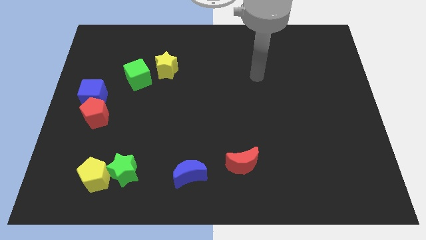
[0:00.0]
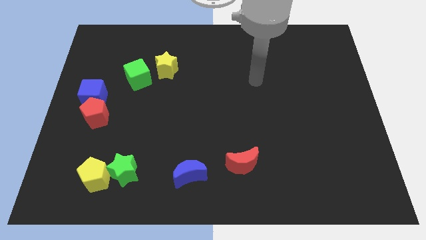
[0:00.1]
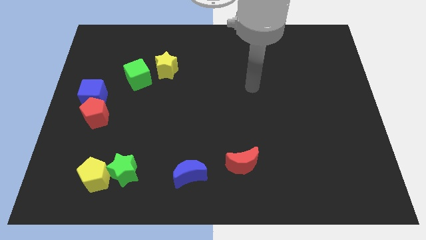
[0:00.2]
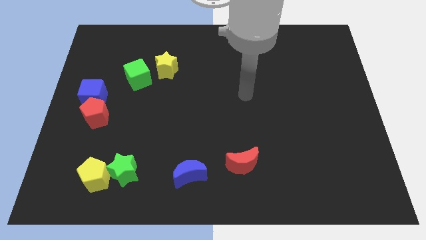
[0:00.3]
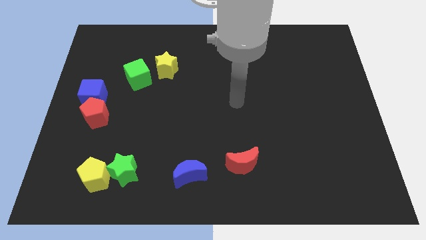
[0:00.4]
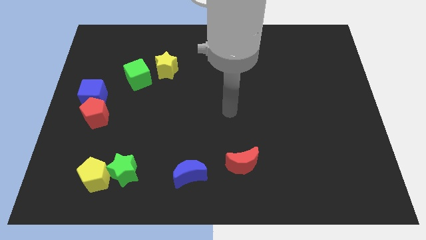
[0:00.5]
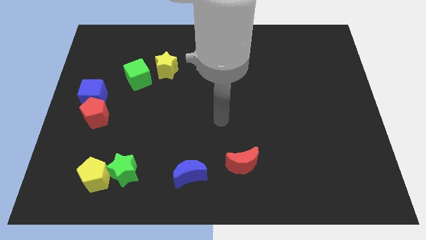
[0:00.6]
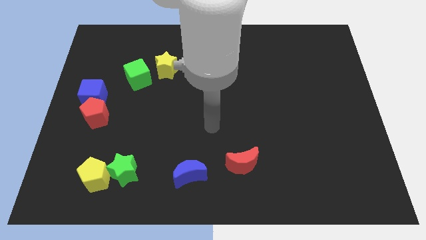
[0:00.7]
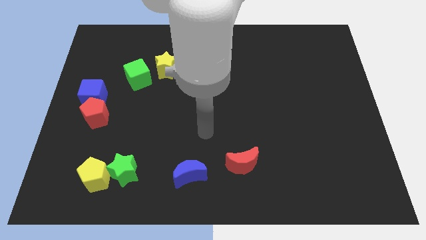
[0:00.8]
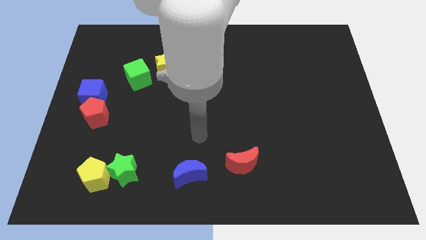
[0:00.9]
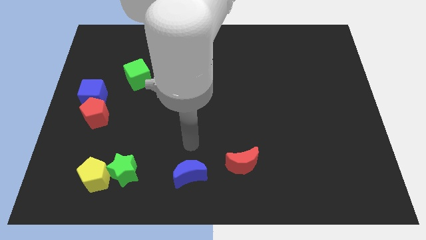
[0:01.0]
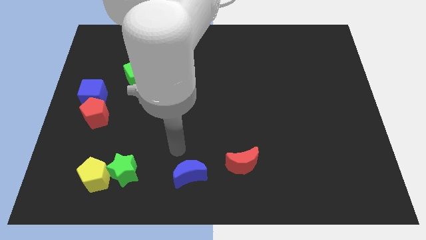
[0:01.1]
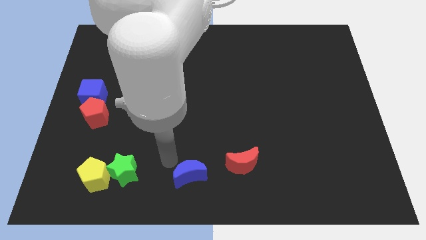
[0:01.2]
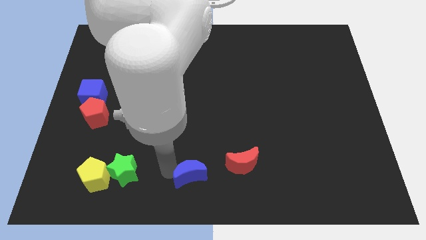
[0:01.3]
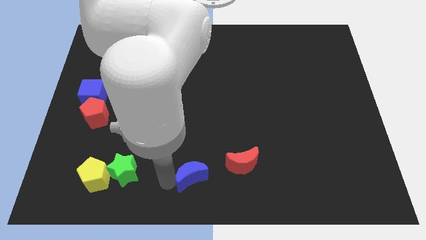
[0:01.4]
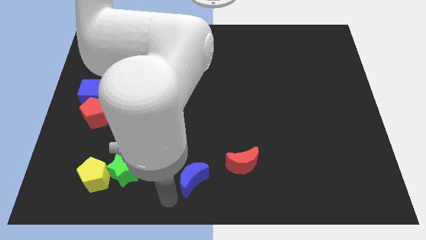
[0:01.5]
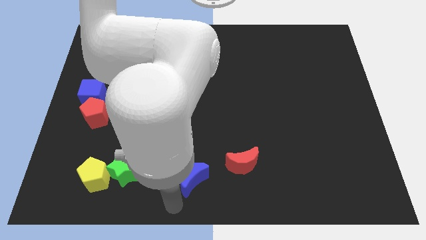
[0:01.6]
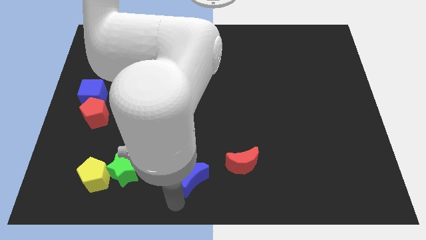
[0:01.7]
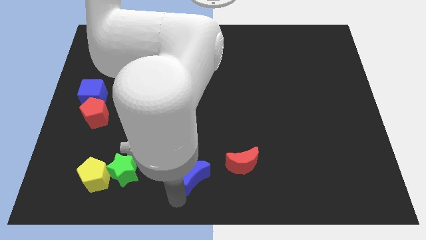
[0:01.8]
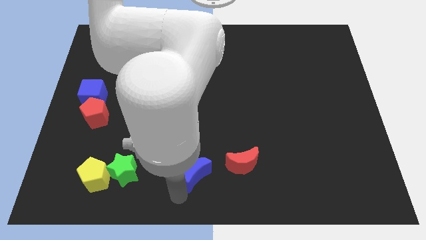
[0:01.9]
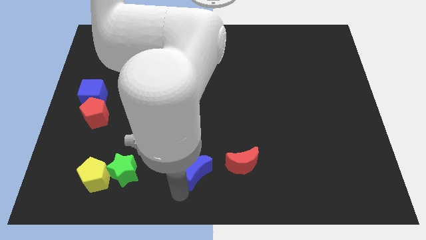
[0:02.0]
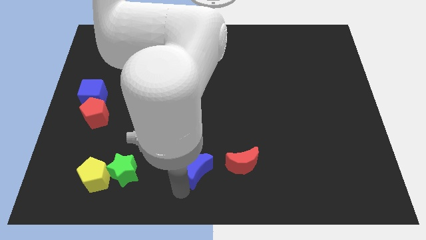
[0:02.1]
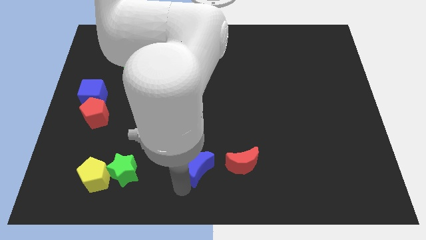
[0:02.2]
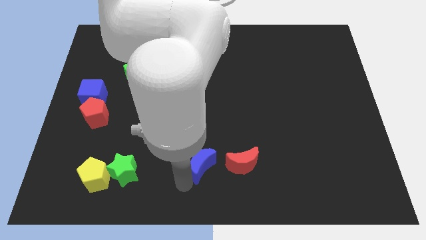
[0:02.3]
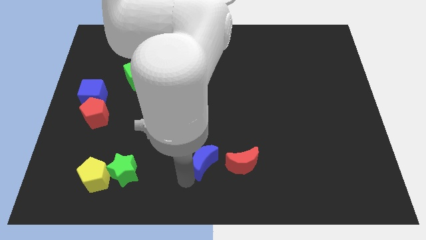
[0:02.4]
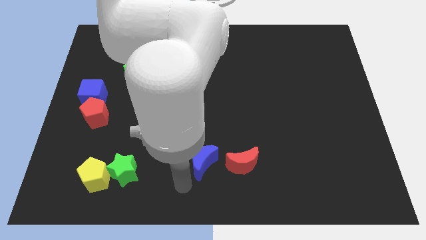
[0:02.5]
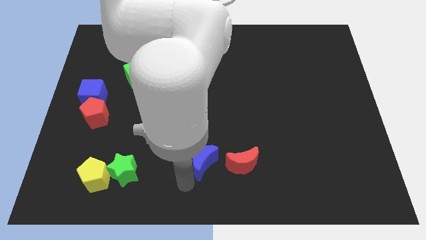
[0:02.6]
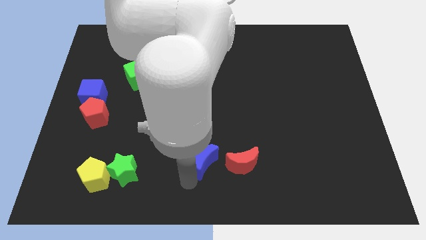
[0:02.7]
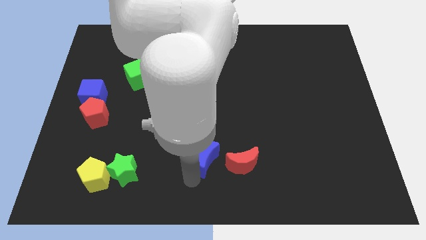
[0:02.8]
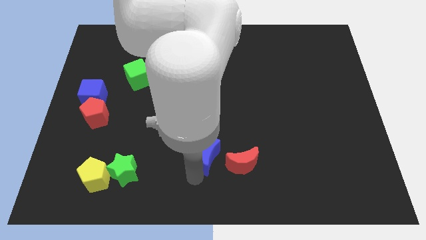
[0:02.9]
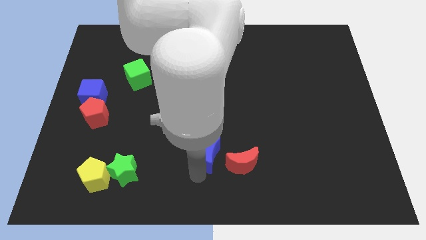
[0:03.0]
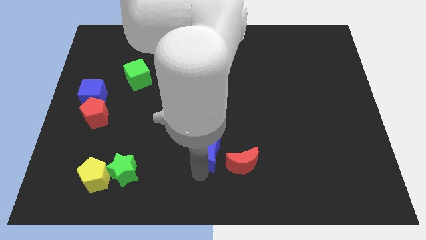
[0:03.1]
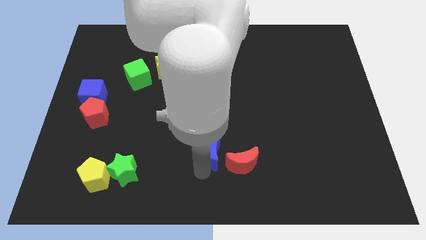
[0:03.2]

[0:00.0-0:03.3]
slightly slide the blue moon upwards and to the right diagonally

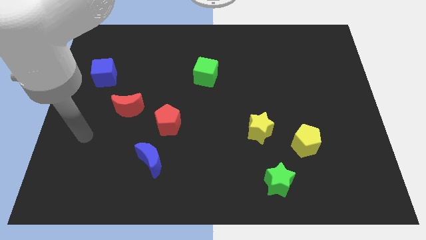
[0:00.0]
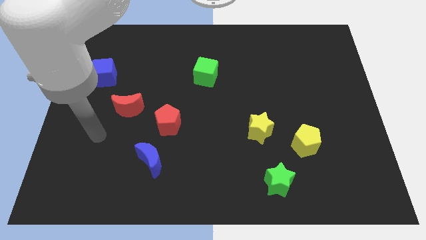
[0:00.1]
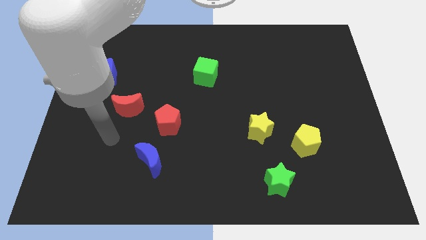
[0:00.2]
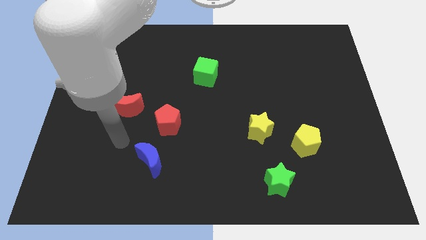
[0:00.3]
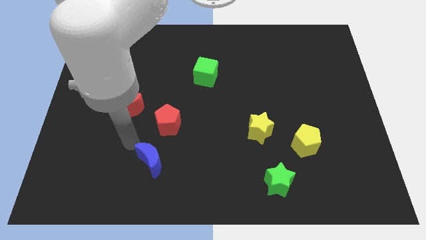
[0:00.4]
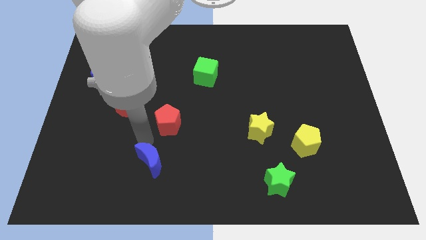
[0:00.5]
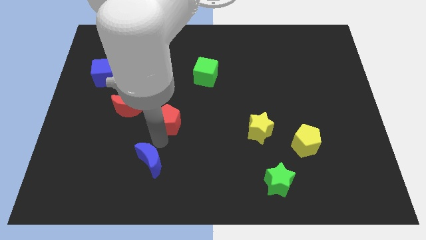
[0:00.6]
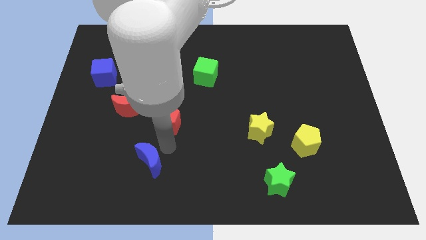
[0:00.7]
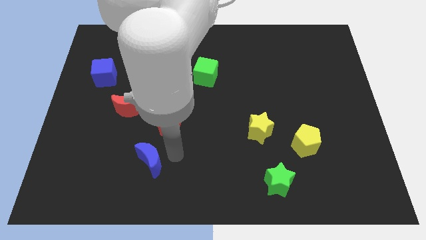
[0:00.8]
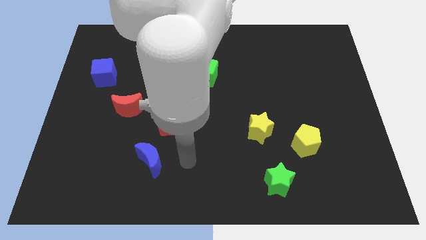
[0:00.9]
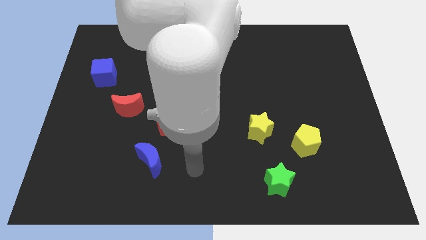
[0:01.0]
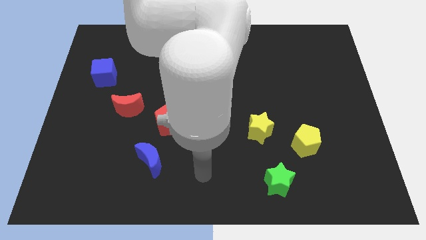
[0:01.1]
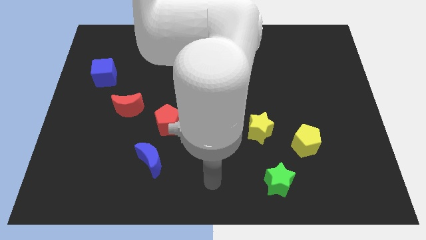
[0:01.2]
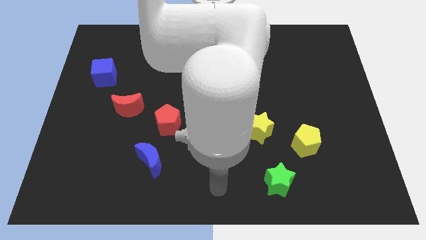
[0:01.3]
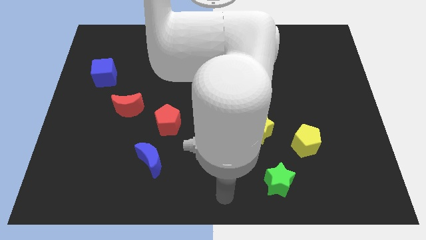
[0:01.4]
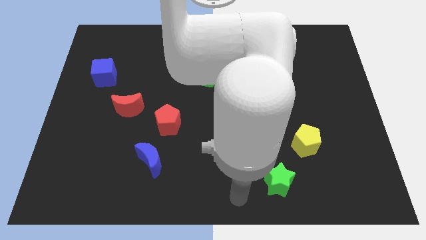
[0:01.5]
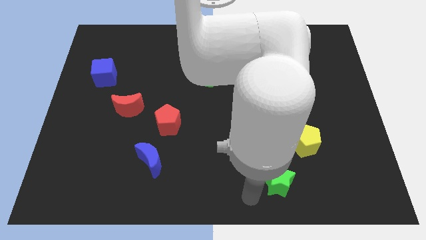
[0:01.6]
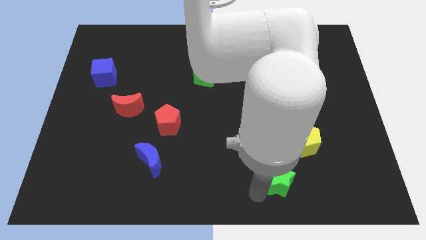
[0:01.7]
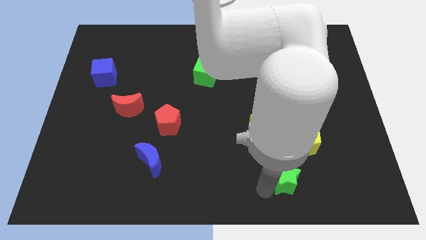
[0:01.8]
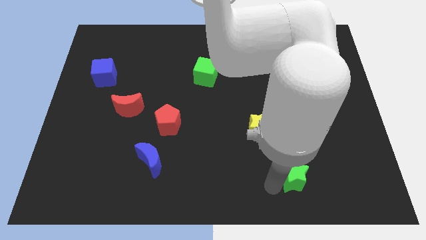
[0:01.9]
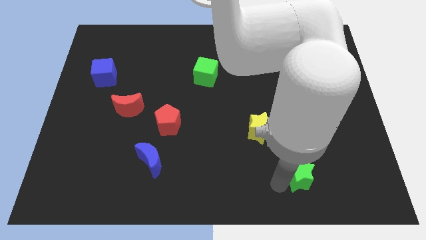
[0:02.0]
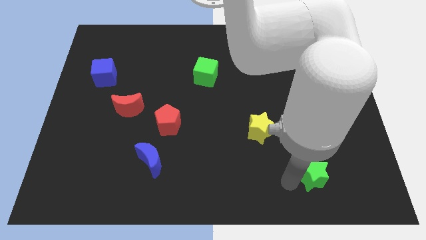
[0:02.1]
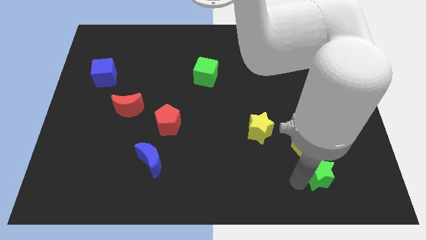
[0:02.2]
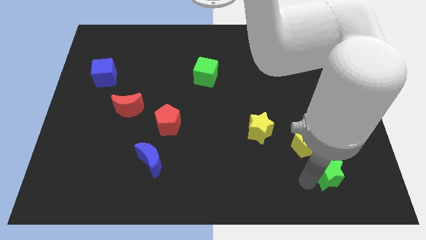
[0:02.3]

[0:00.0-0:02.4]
slightly push the green star up and right diagonally

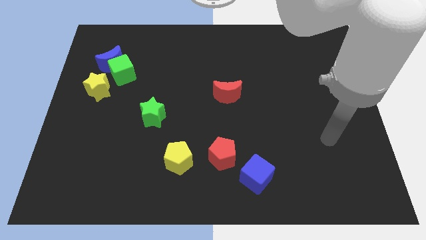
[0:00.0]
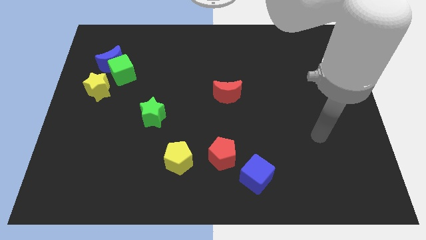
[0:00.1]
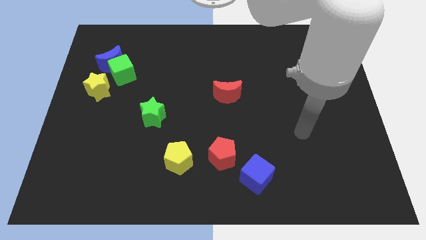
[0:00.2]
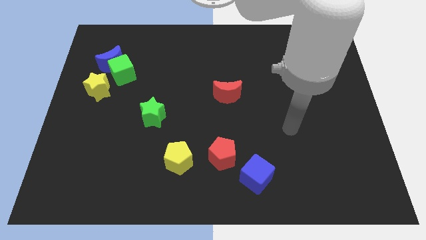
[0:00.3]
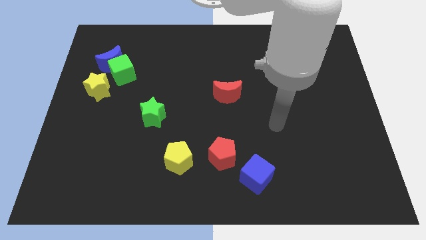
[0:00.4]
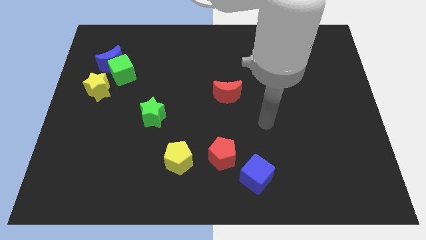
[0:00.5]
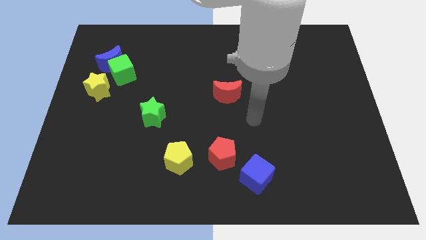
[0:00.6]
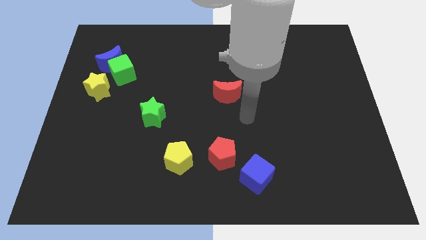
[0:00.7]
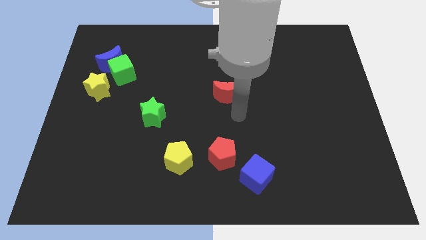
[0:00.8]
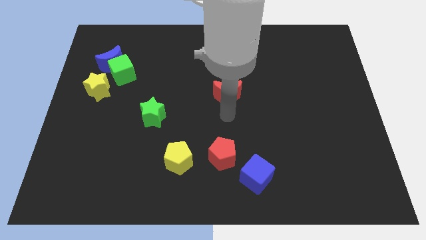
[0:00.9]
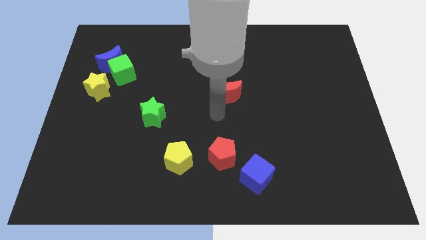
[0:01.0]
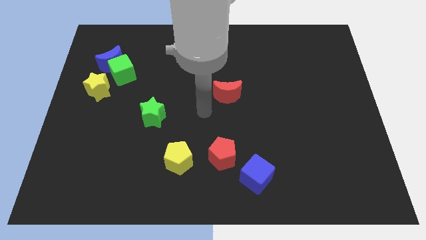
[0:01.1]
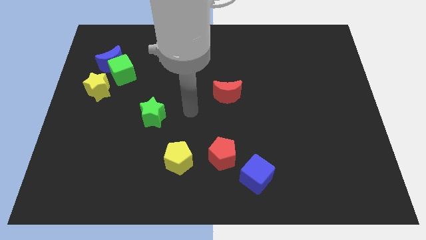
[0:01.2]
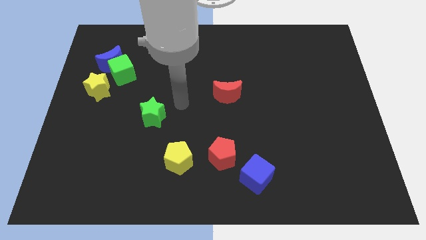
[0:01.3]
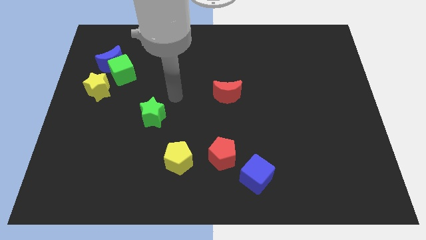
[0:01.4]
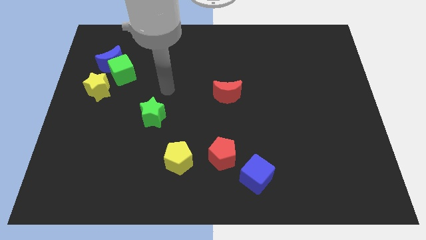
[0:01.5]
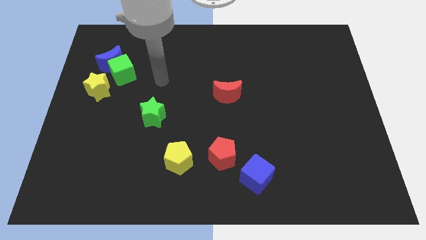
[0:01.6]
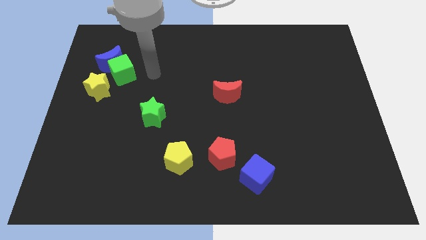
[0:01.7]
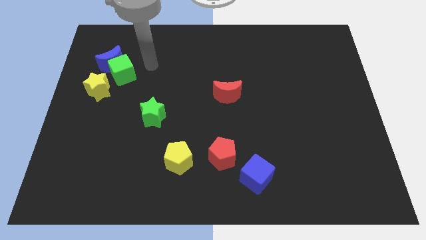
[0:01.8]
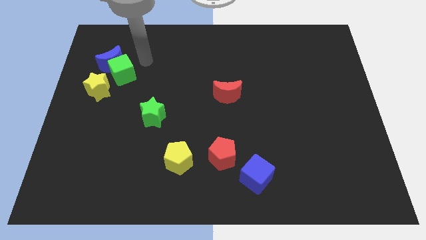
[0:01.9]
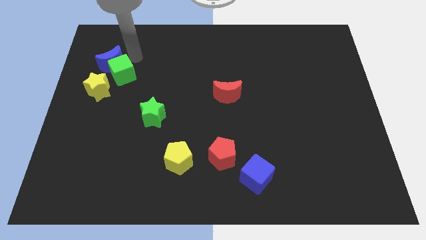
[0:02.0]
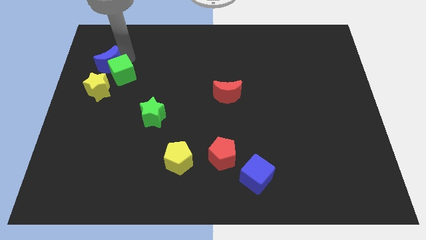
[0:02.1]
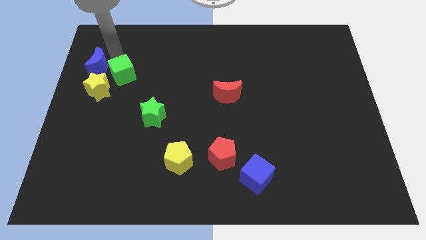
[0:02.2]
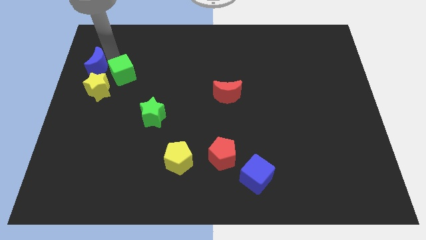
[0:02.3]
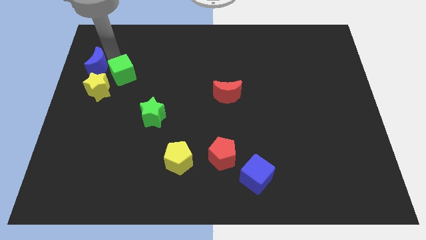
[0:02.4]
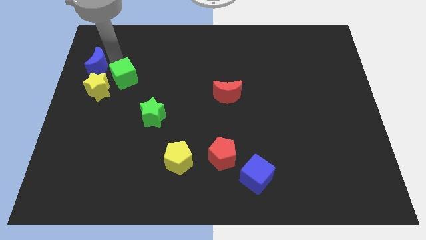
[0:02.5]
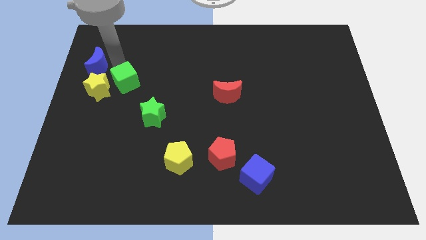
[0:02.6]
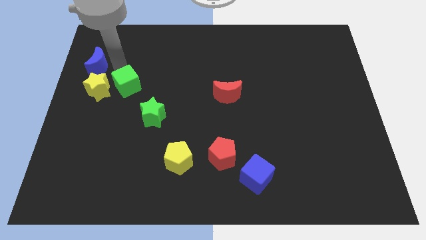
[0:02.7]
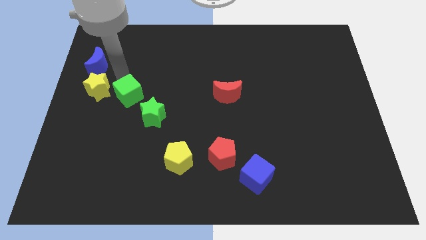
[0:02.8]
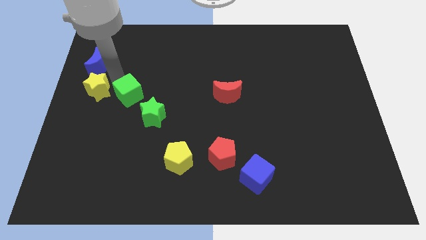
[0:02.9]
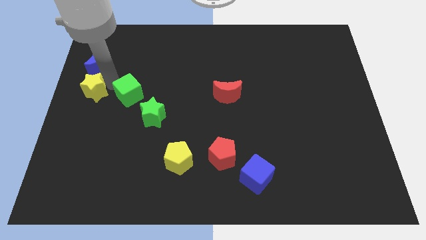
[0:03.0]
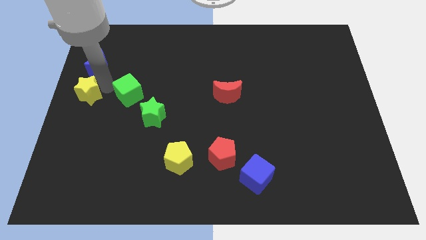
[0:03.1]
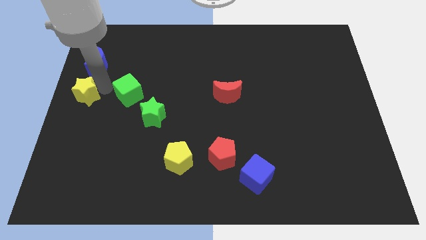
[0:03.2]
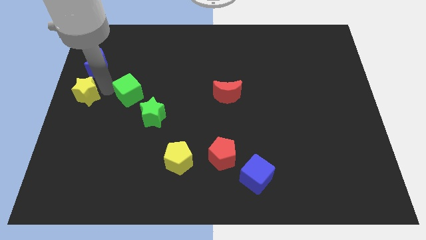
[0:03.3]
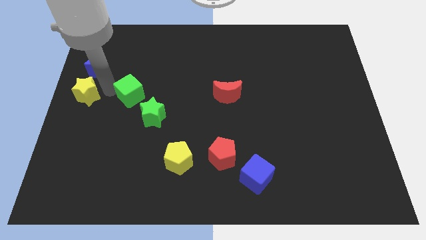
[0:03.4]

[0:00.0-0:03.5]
push the green cube a little diagonally down and right
